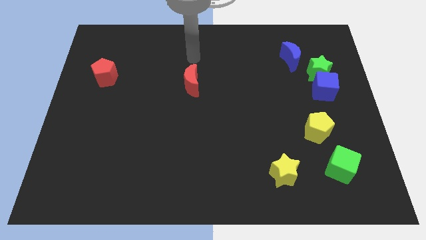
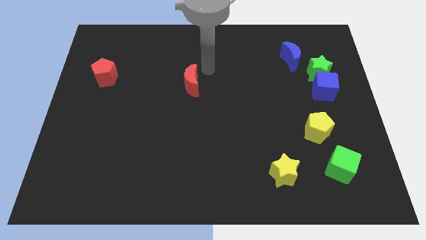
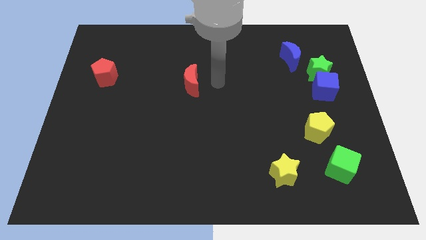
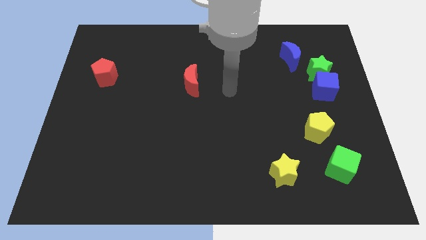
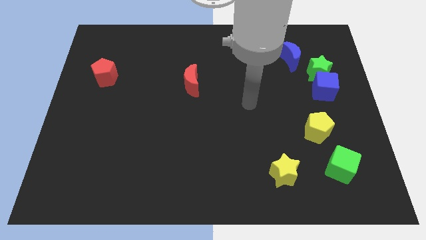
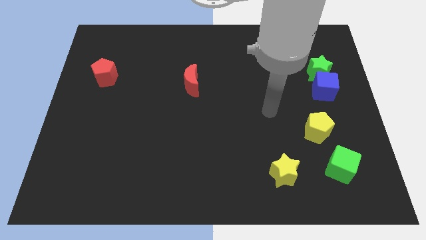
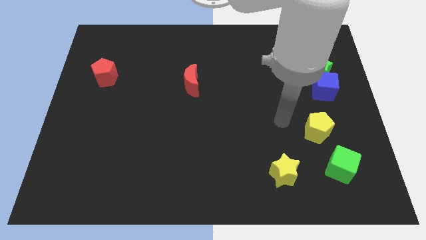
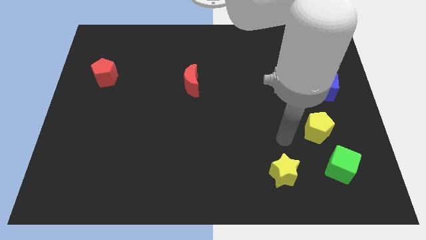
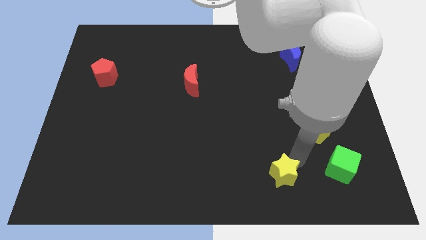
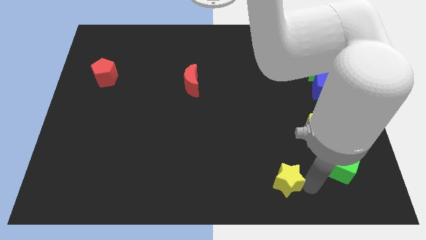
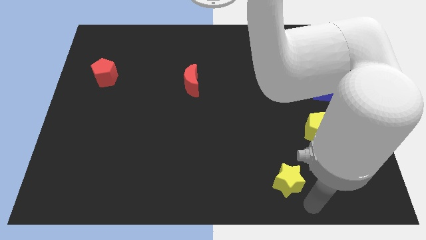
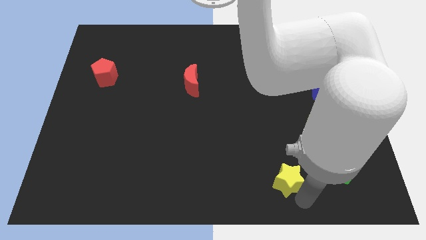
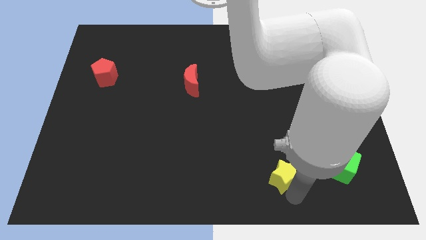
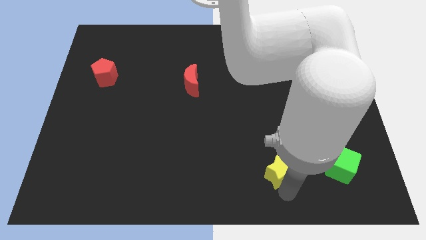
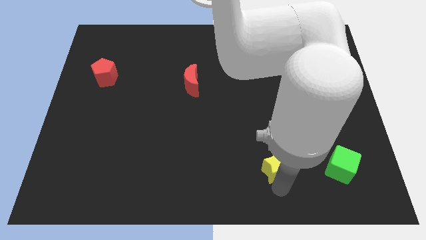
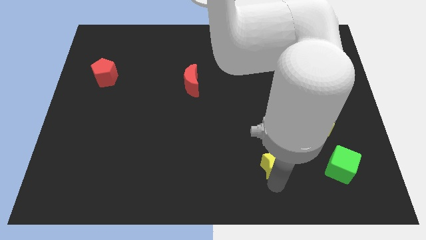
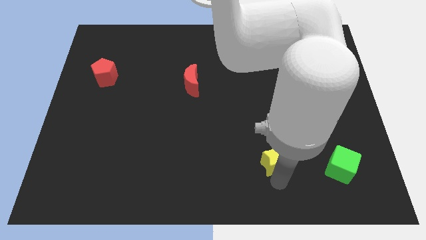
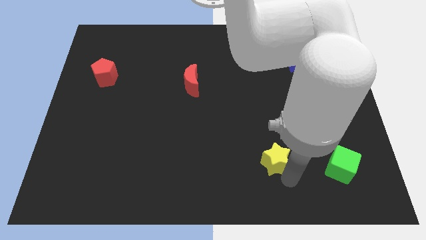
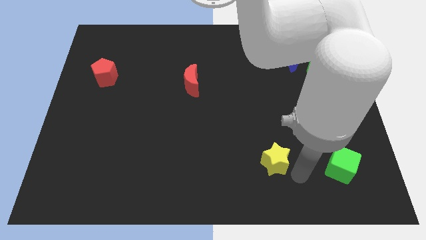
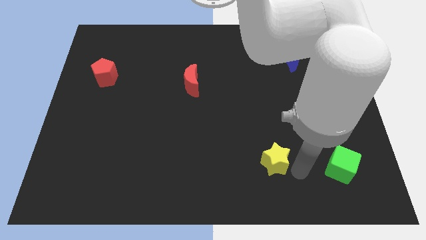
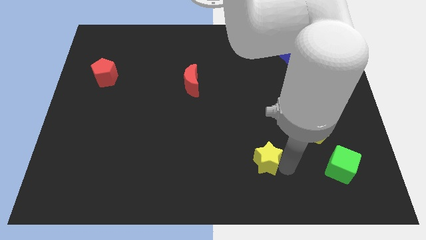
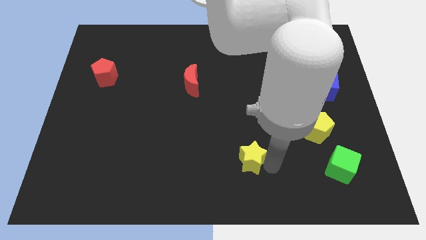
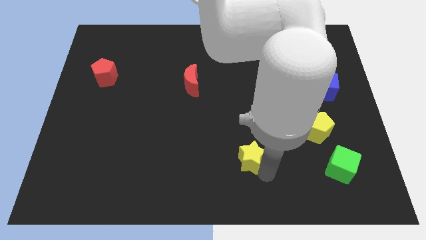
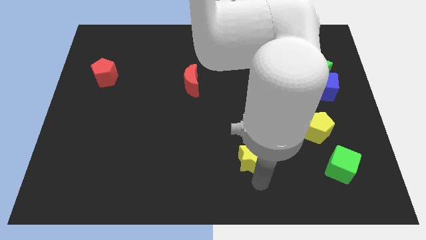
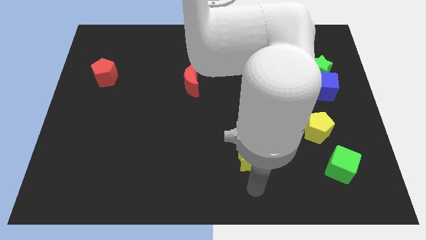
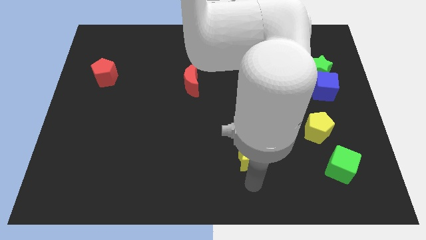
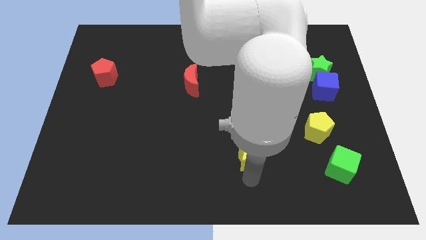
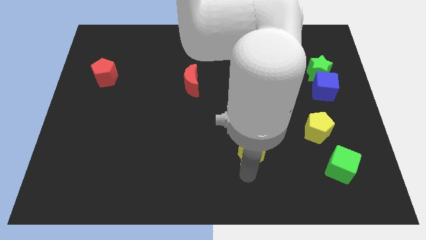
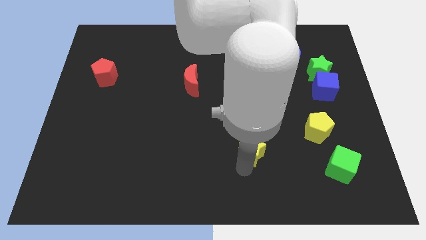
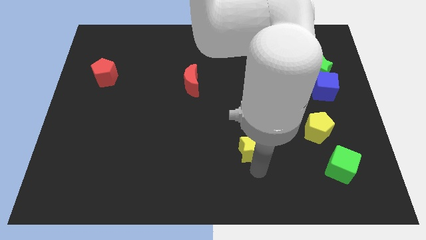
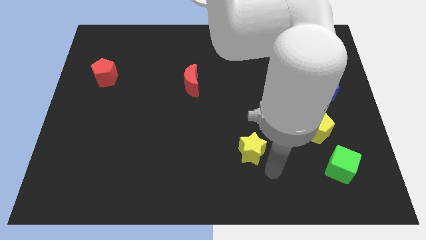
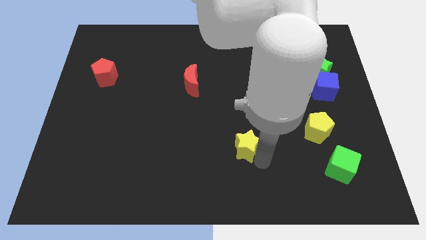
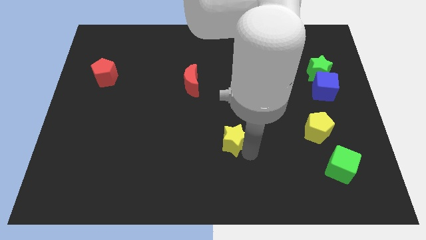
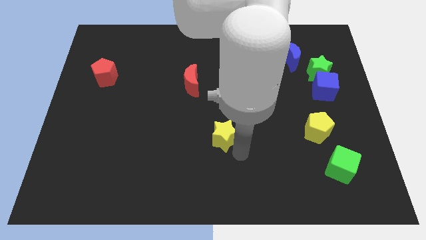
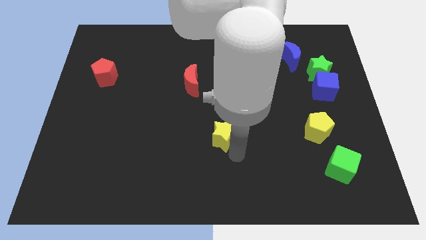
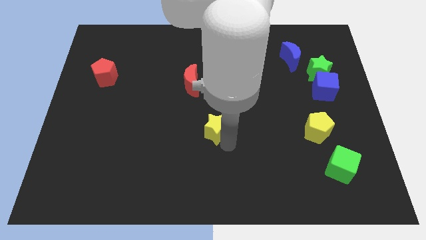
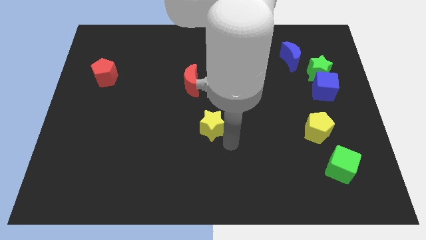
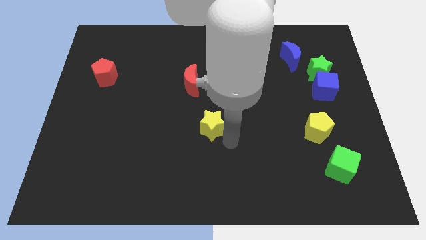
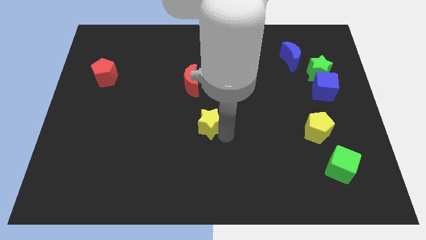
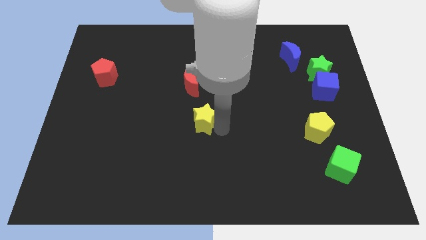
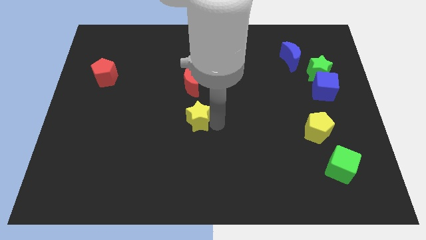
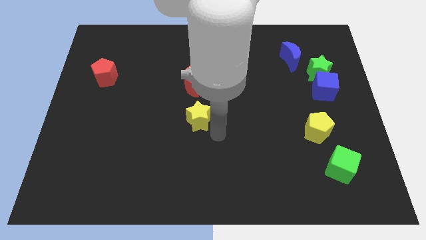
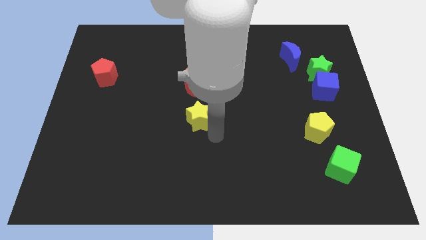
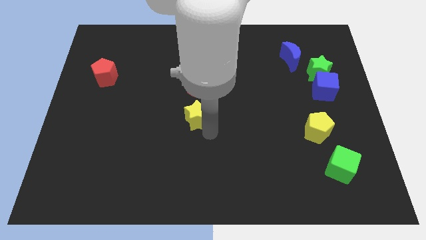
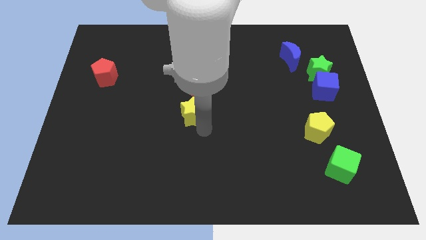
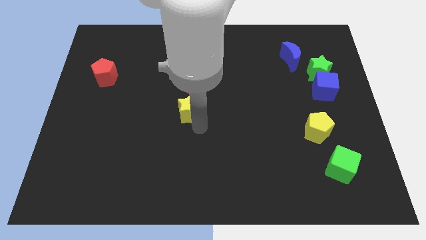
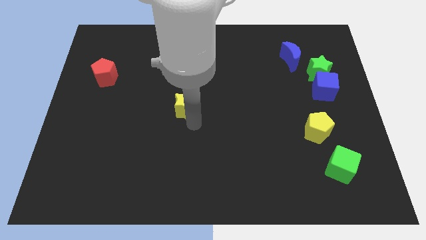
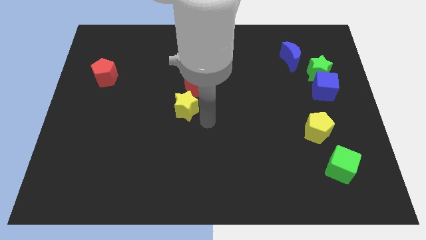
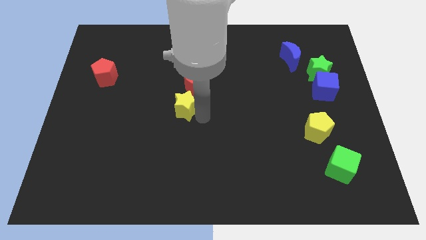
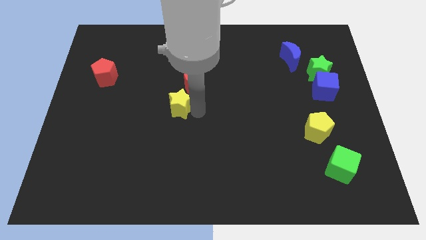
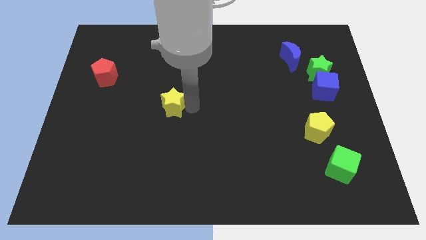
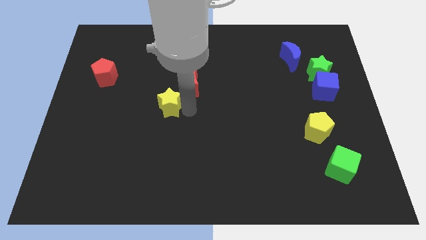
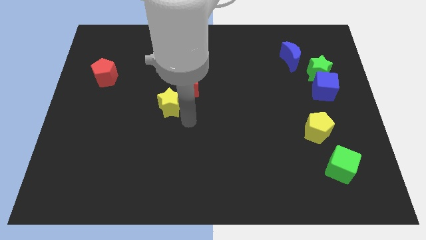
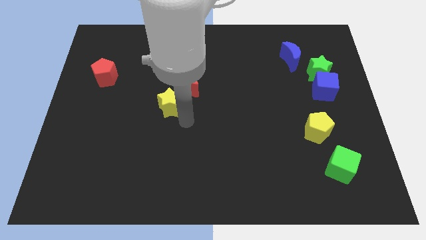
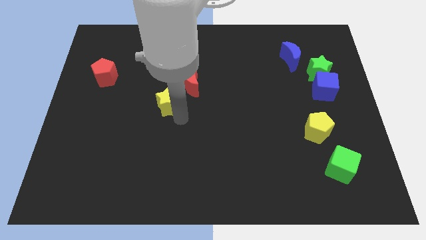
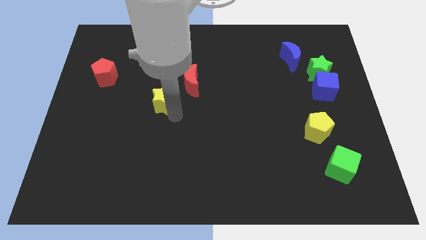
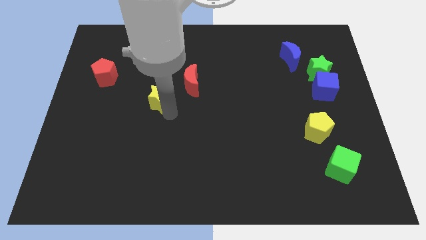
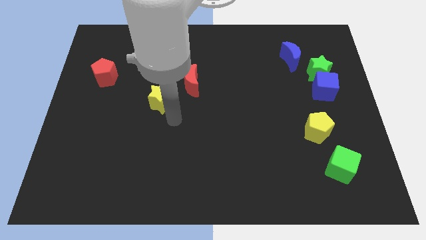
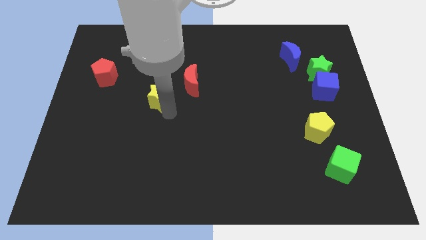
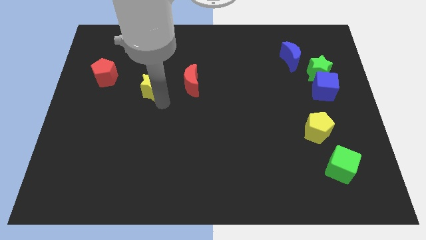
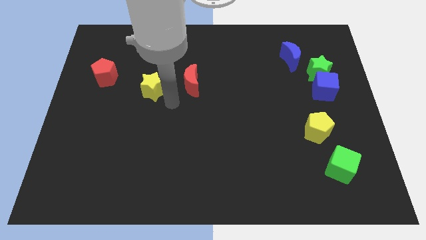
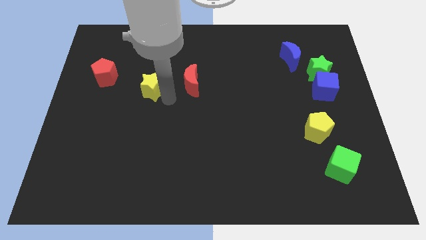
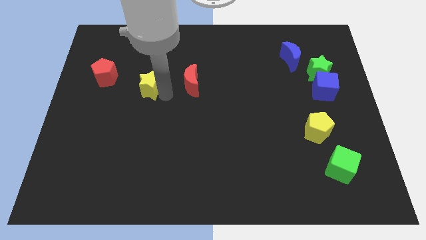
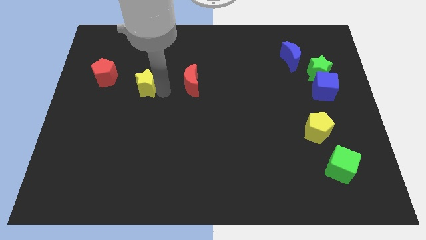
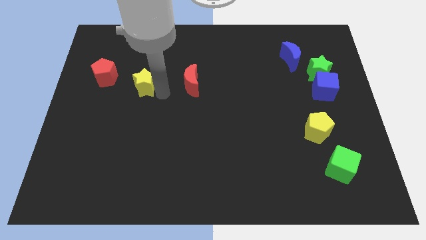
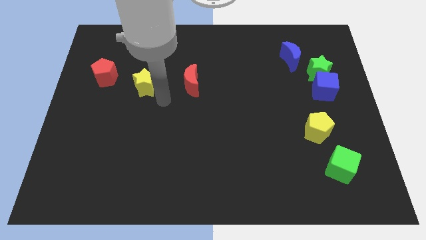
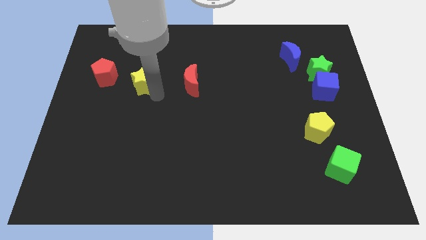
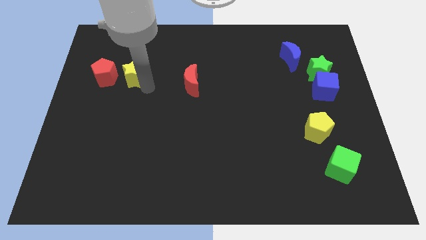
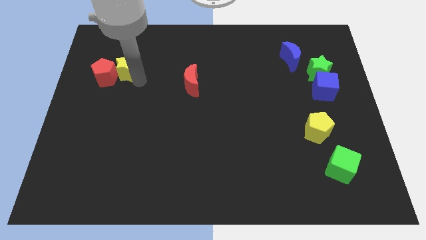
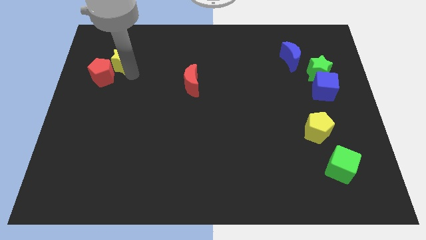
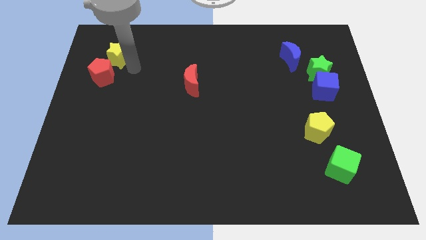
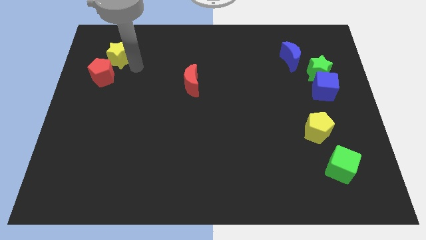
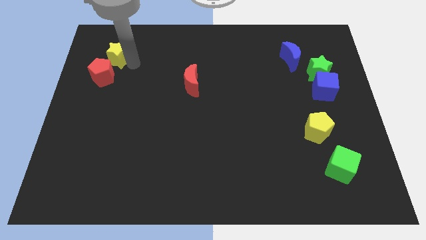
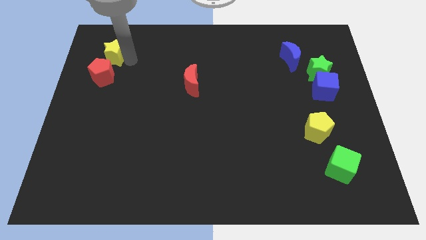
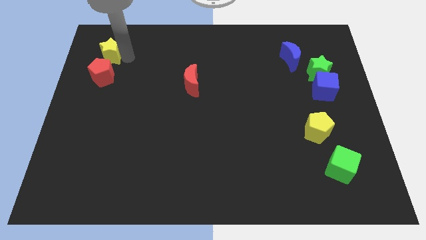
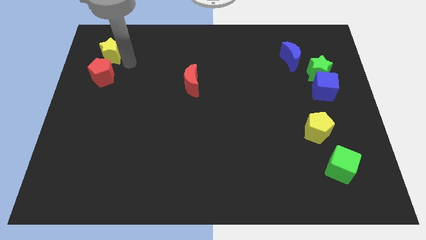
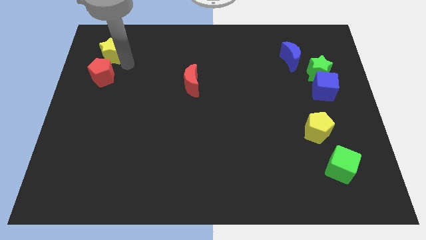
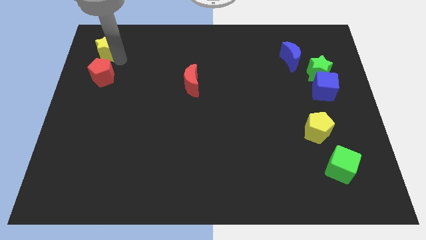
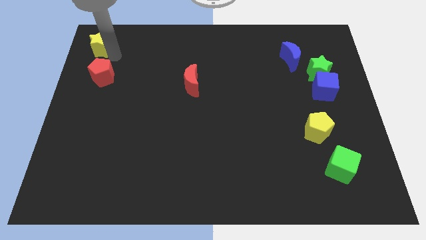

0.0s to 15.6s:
slide the yellow star to the top left
